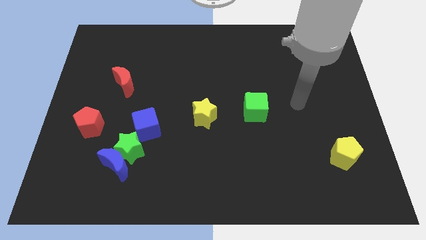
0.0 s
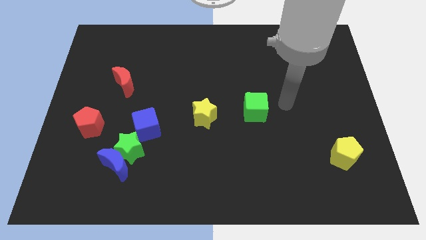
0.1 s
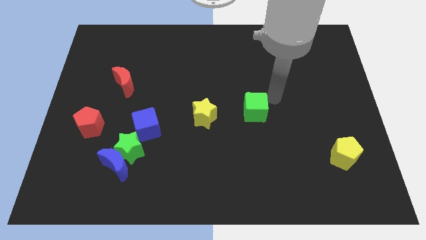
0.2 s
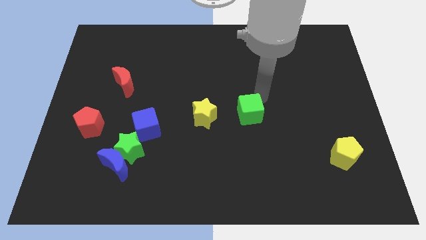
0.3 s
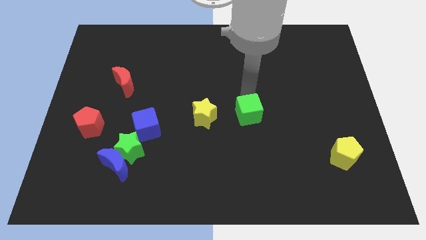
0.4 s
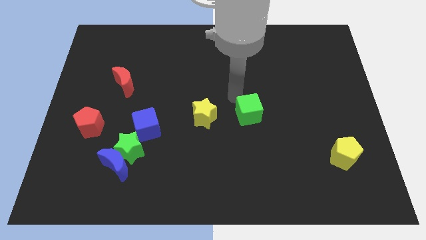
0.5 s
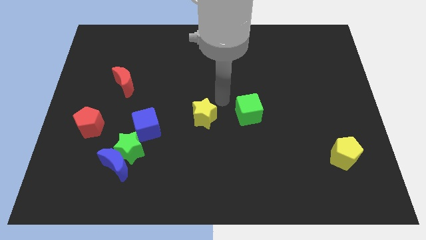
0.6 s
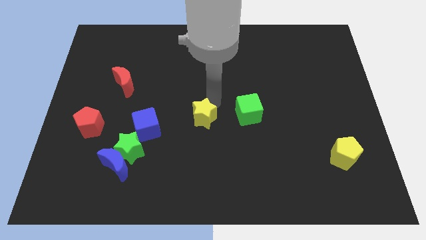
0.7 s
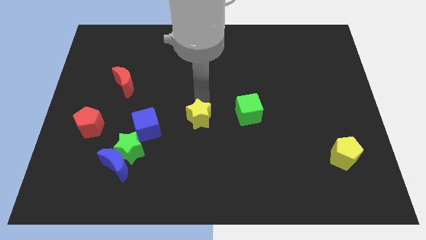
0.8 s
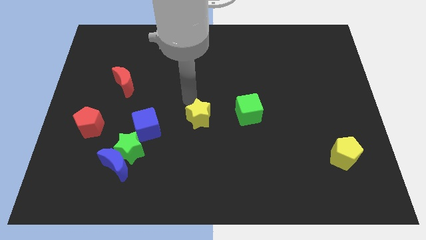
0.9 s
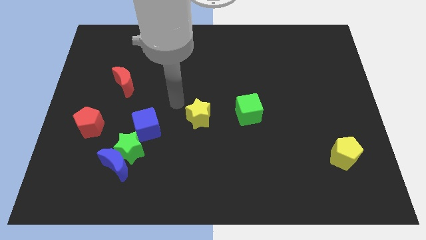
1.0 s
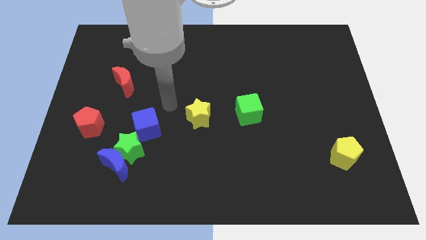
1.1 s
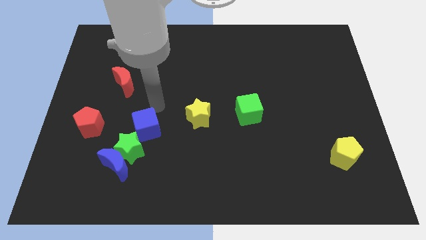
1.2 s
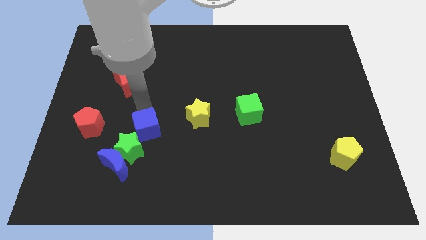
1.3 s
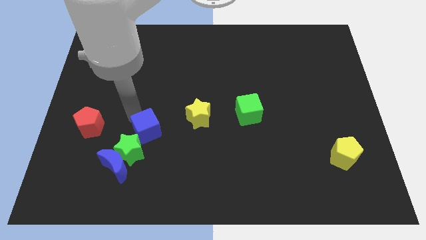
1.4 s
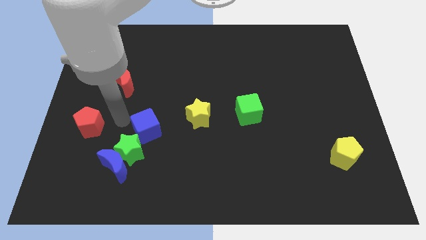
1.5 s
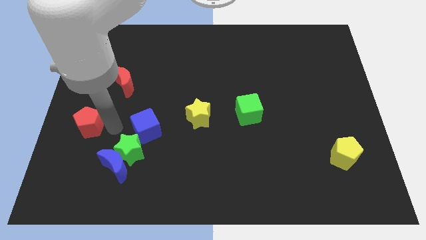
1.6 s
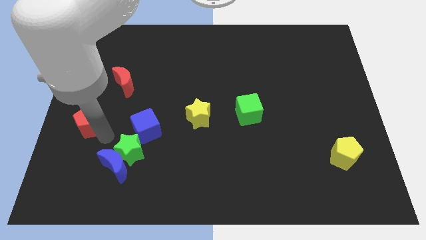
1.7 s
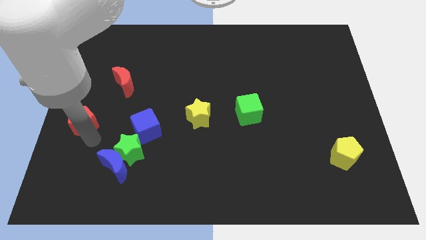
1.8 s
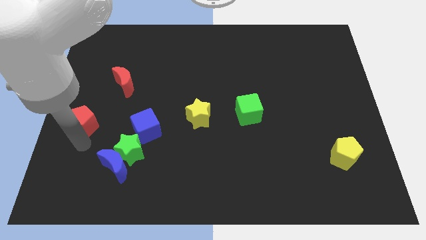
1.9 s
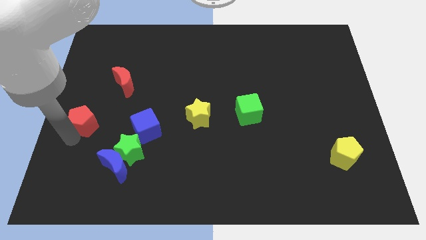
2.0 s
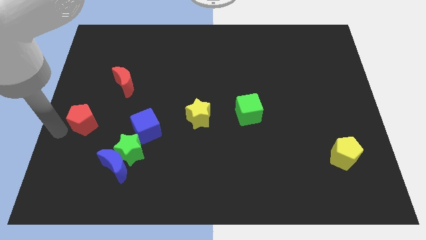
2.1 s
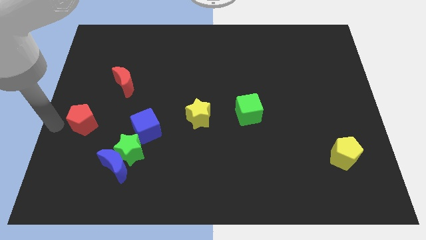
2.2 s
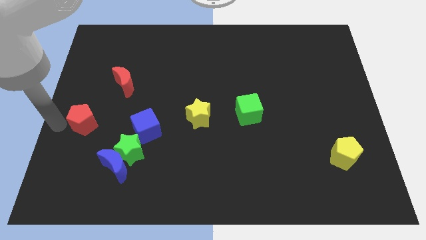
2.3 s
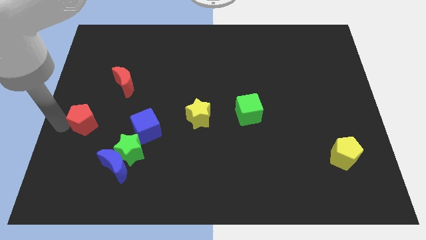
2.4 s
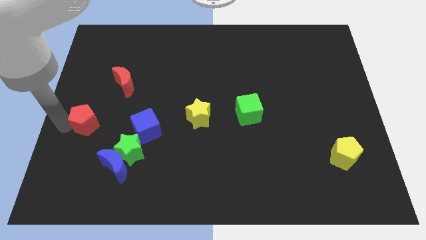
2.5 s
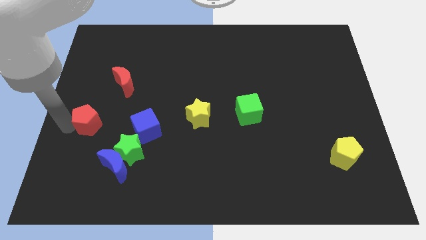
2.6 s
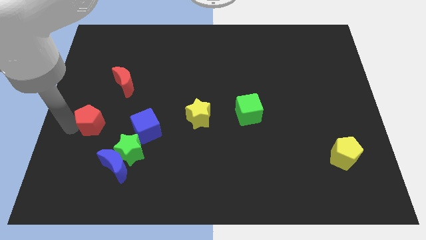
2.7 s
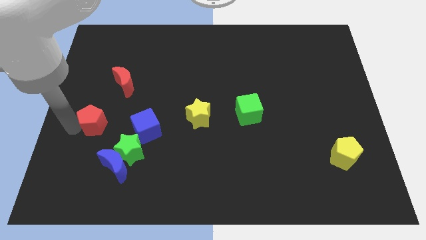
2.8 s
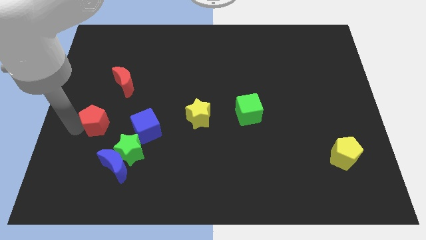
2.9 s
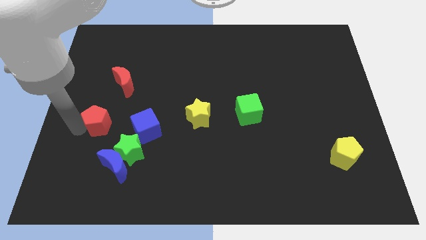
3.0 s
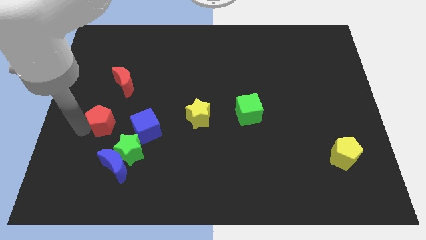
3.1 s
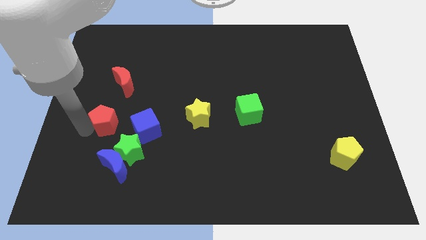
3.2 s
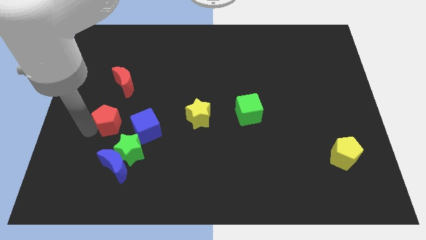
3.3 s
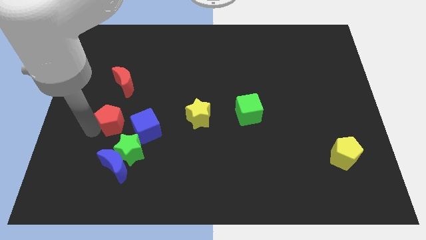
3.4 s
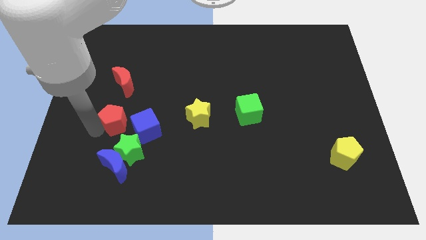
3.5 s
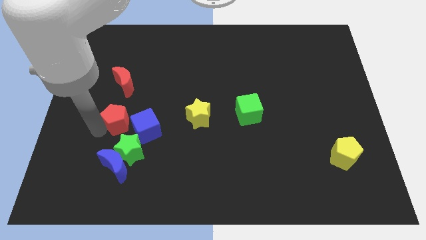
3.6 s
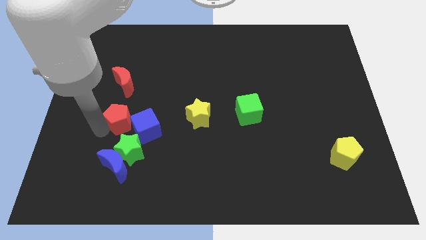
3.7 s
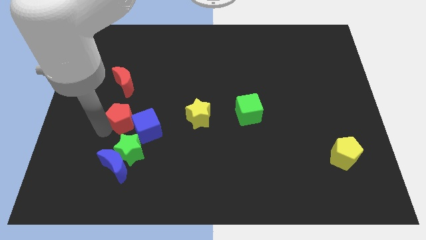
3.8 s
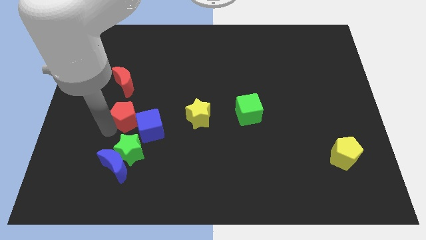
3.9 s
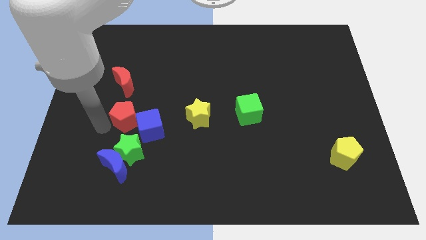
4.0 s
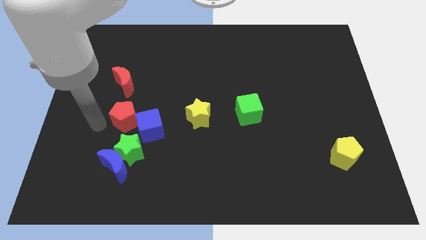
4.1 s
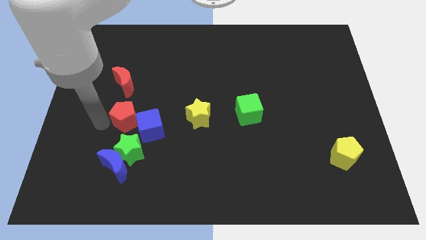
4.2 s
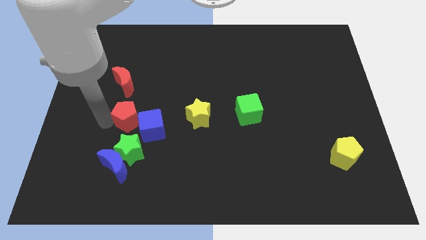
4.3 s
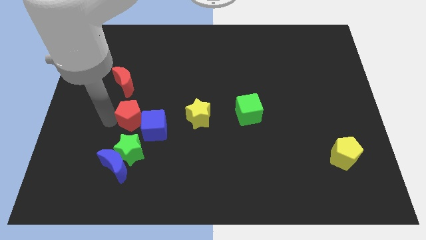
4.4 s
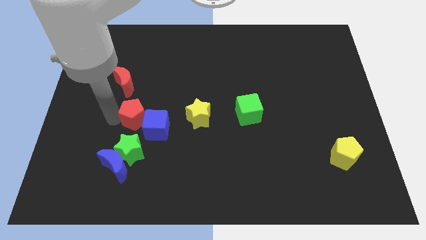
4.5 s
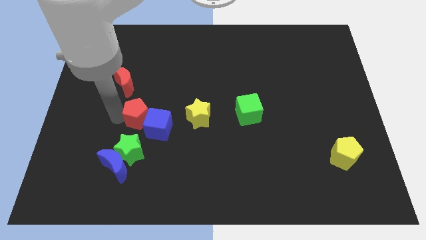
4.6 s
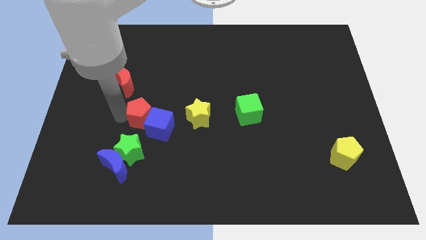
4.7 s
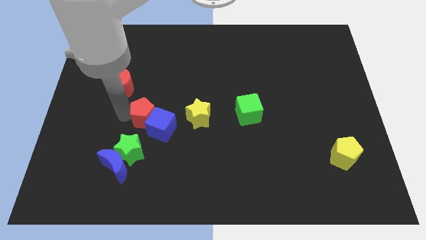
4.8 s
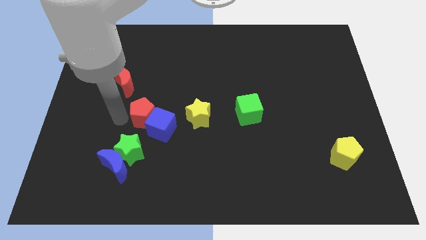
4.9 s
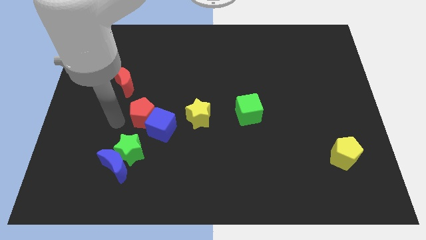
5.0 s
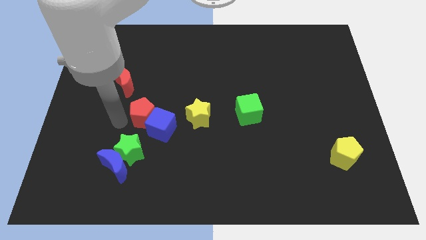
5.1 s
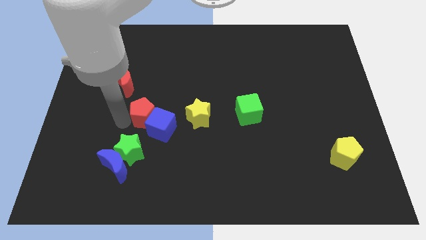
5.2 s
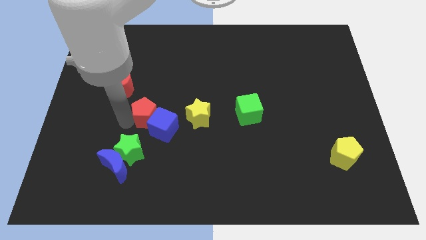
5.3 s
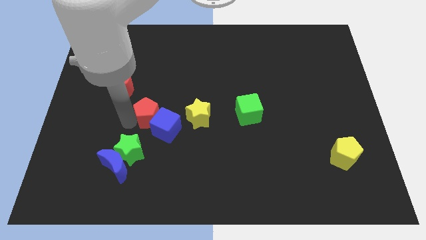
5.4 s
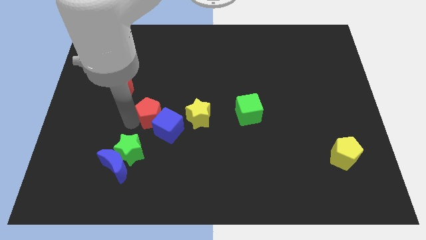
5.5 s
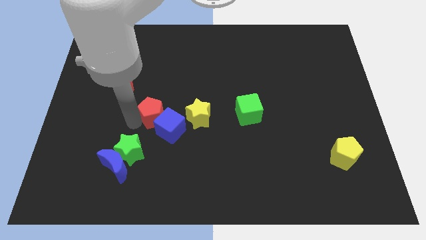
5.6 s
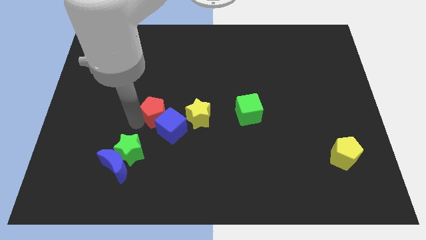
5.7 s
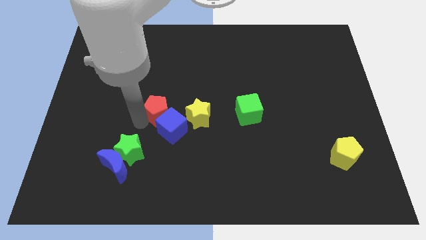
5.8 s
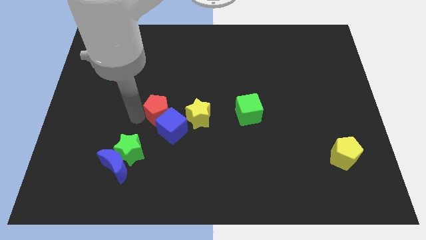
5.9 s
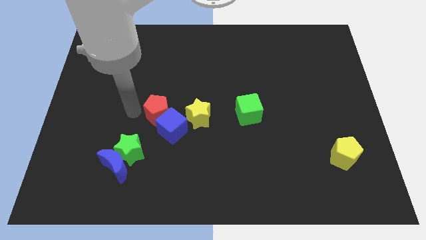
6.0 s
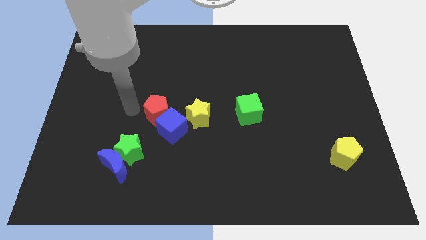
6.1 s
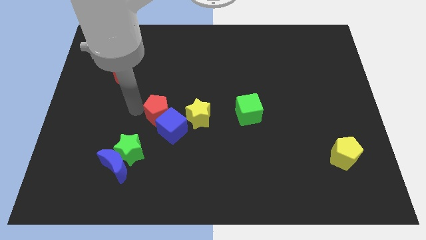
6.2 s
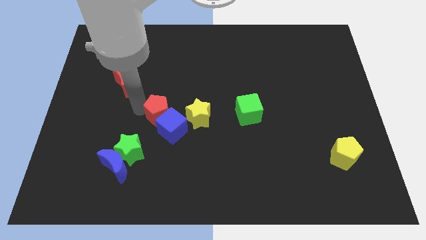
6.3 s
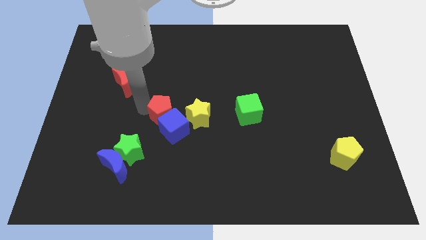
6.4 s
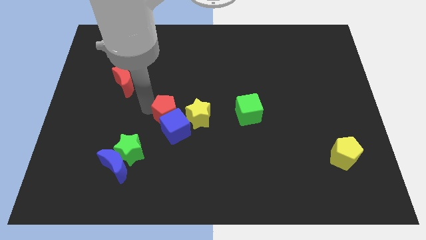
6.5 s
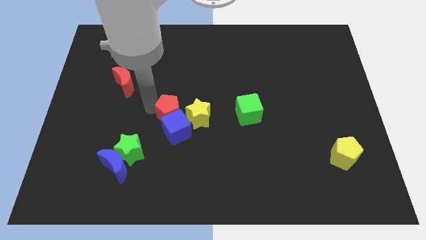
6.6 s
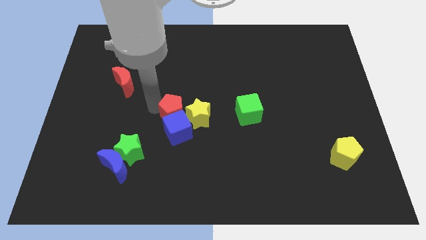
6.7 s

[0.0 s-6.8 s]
move the red pentagon to the yellow star

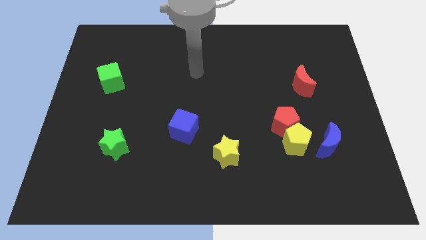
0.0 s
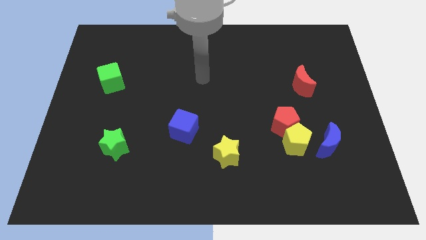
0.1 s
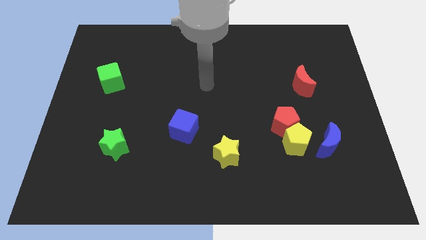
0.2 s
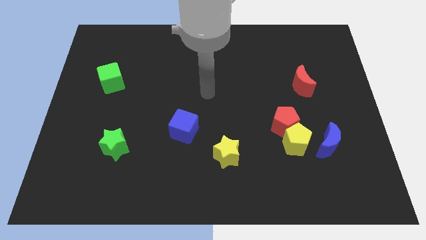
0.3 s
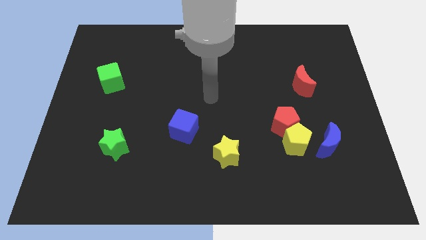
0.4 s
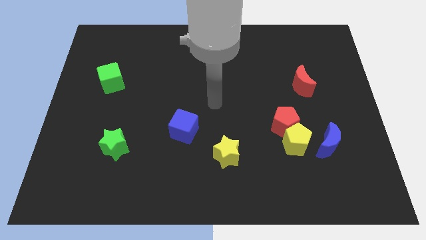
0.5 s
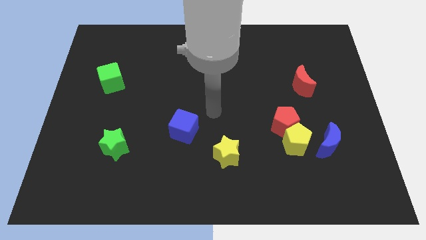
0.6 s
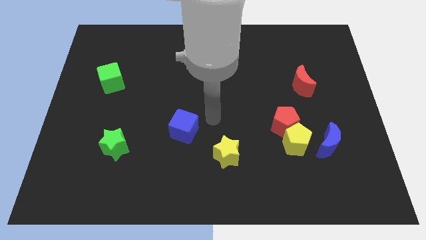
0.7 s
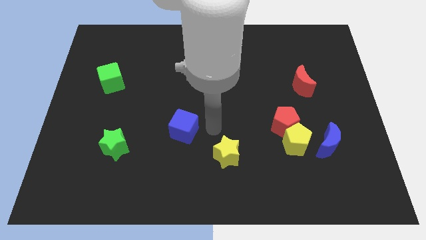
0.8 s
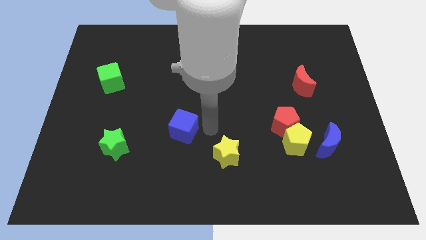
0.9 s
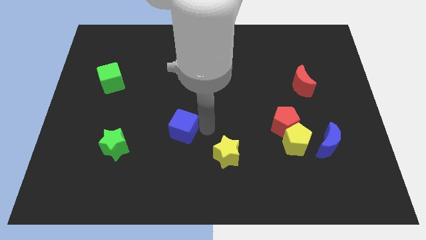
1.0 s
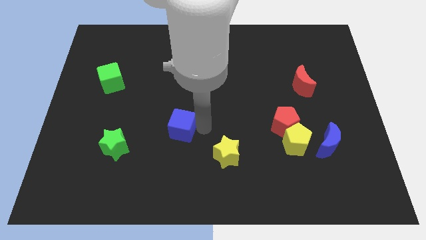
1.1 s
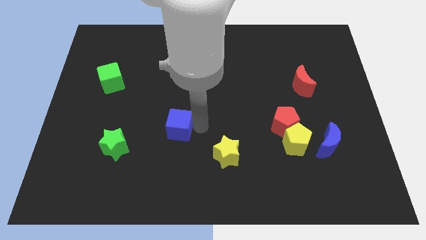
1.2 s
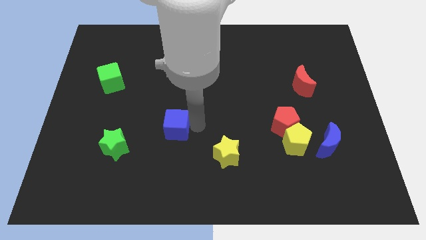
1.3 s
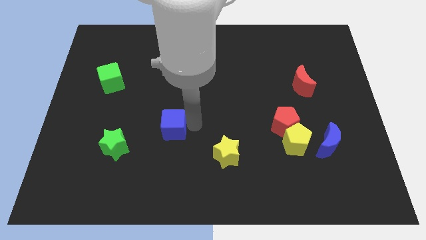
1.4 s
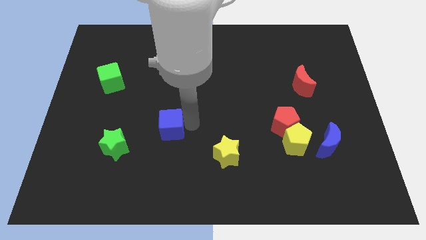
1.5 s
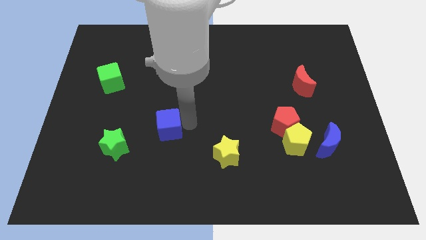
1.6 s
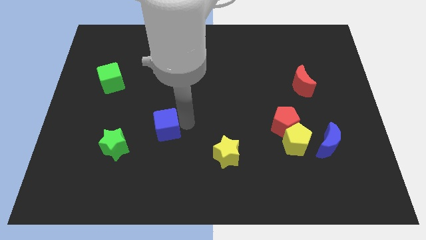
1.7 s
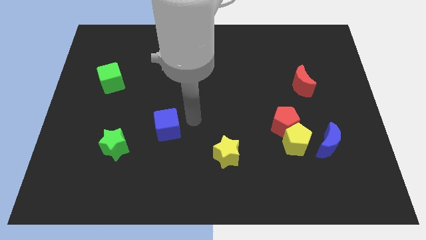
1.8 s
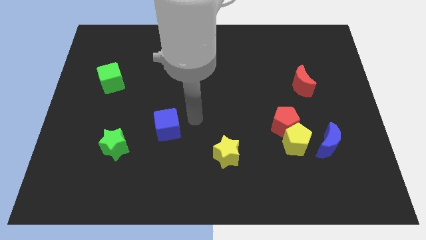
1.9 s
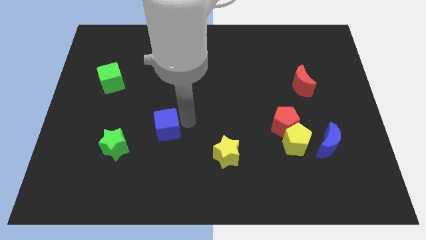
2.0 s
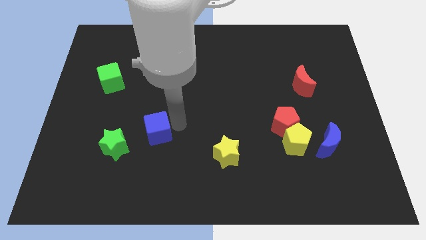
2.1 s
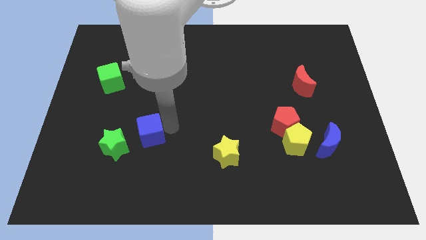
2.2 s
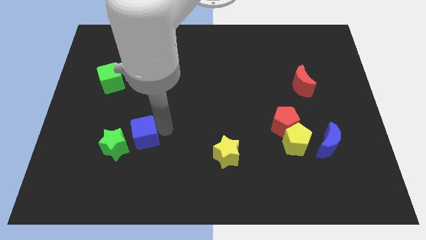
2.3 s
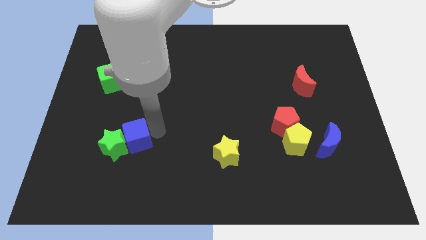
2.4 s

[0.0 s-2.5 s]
push the blue cube to the green star
